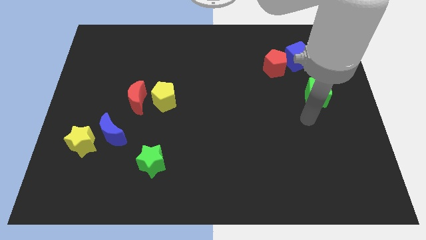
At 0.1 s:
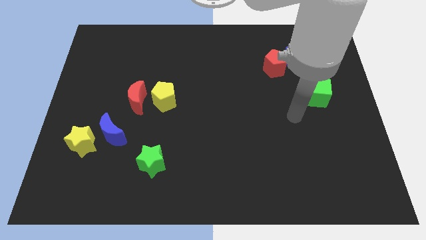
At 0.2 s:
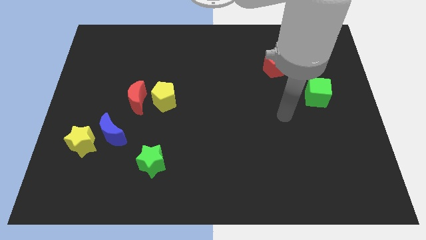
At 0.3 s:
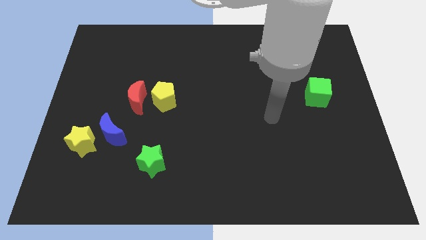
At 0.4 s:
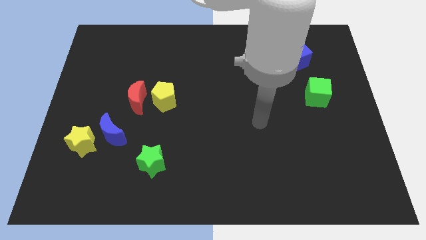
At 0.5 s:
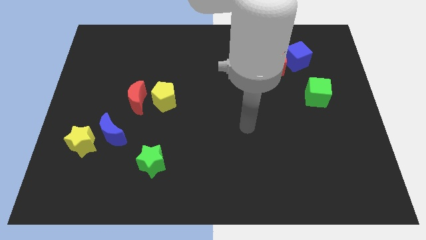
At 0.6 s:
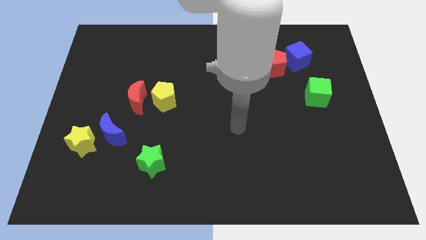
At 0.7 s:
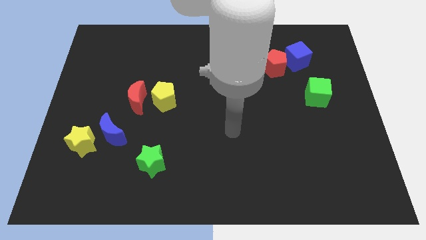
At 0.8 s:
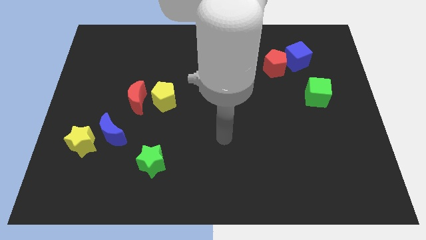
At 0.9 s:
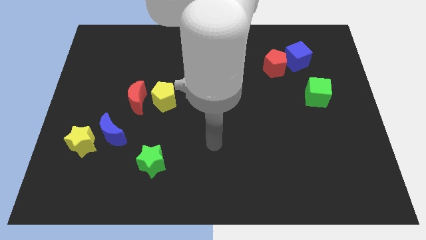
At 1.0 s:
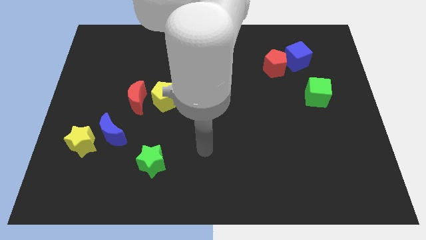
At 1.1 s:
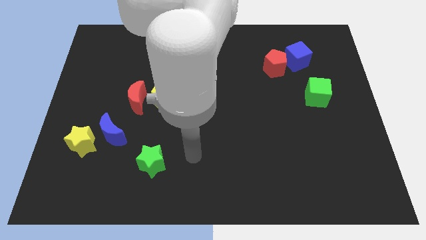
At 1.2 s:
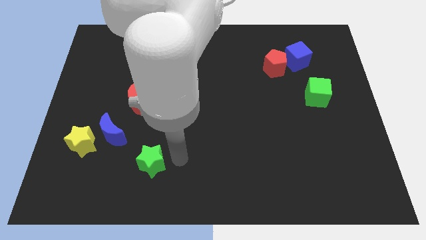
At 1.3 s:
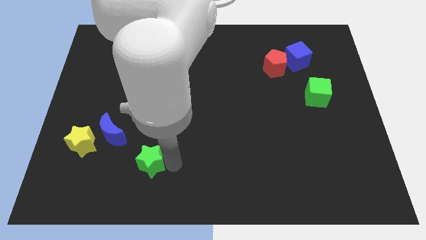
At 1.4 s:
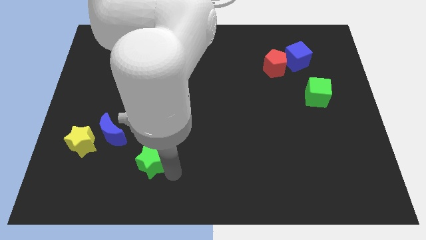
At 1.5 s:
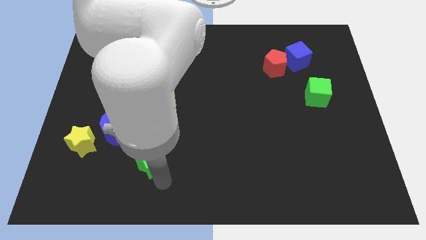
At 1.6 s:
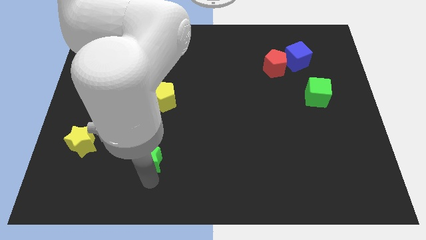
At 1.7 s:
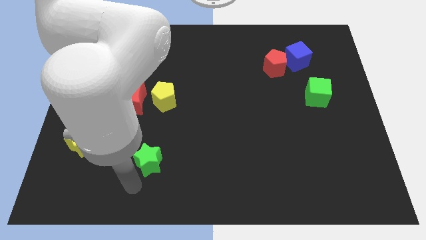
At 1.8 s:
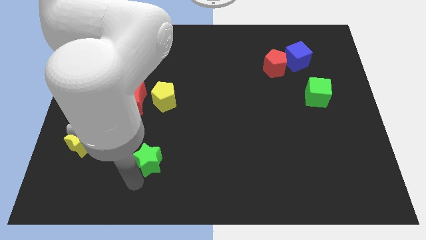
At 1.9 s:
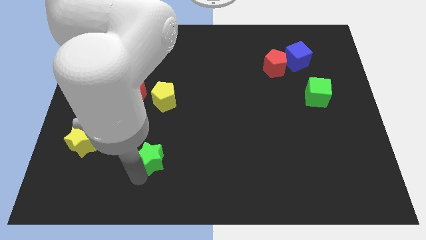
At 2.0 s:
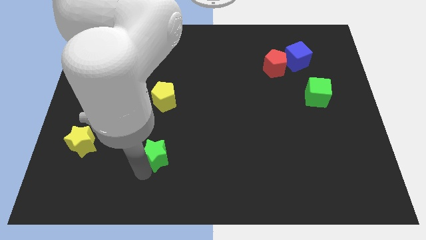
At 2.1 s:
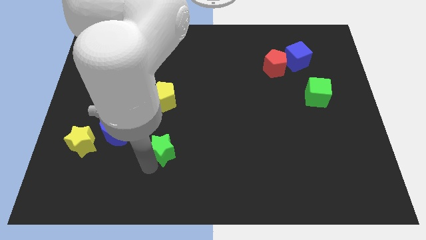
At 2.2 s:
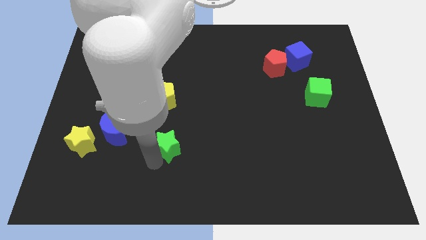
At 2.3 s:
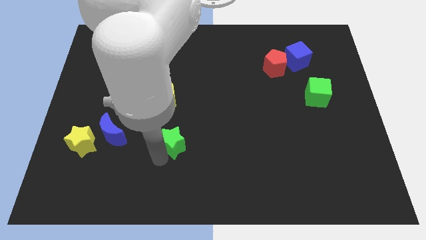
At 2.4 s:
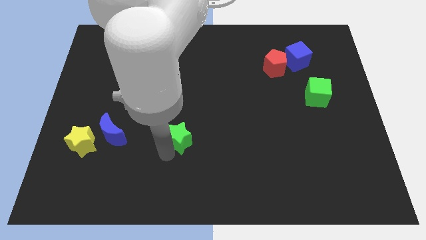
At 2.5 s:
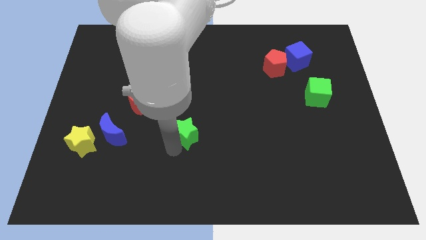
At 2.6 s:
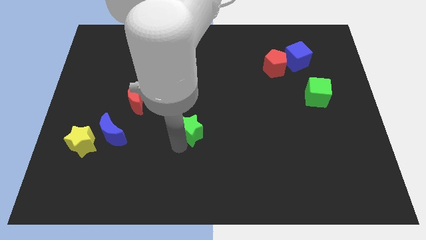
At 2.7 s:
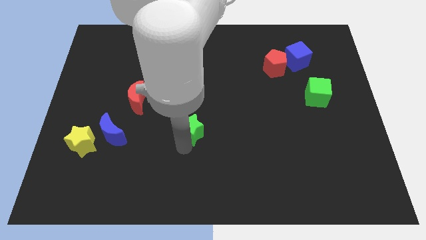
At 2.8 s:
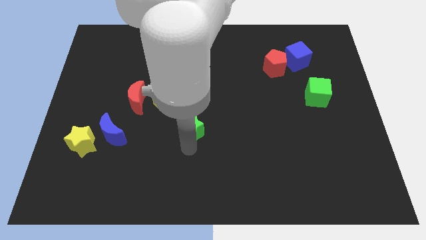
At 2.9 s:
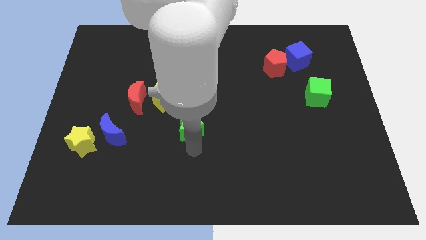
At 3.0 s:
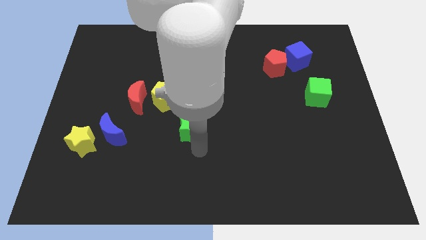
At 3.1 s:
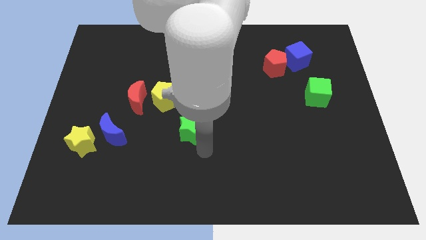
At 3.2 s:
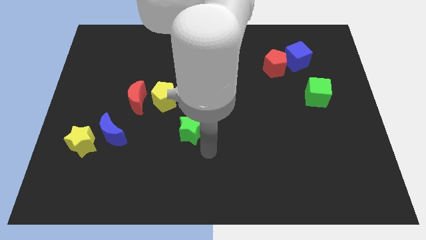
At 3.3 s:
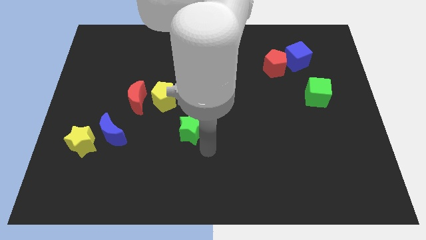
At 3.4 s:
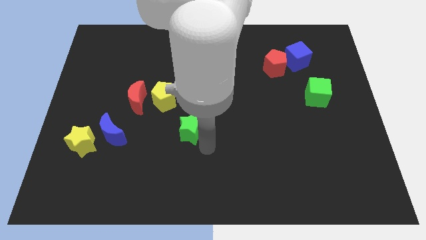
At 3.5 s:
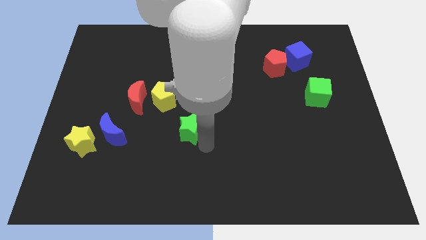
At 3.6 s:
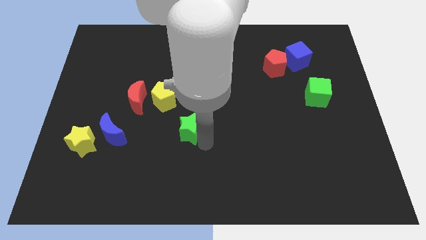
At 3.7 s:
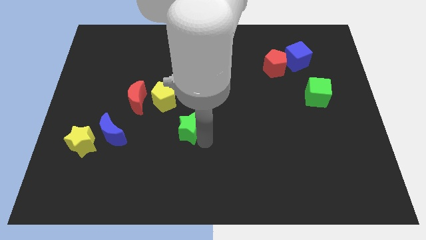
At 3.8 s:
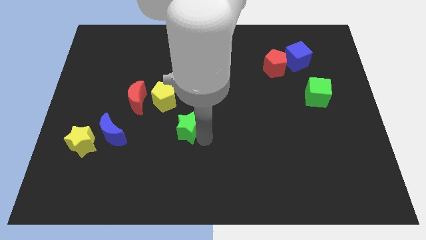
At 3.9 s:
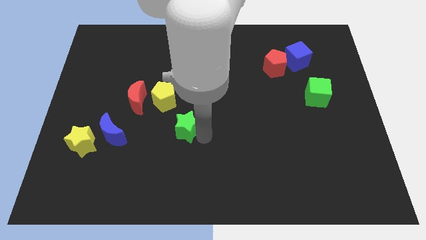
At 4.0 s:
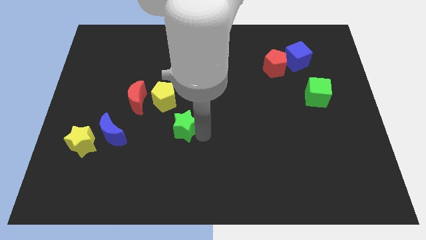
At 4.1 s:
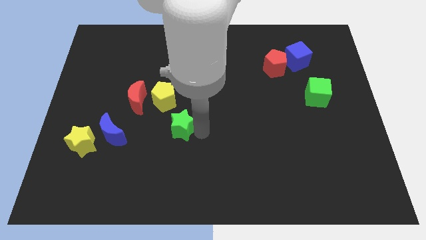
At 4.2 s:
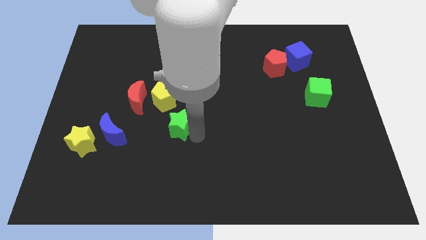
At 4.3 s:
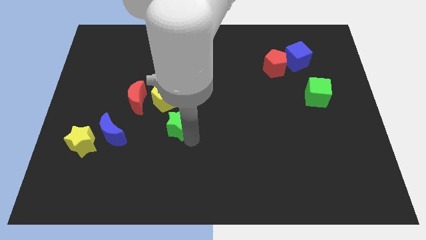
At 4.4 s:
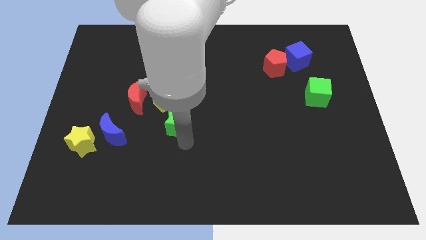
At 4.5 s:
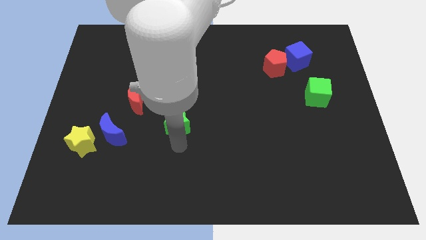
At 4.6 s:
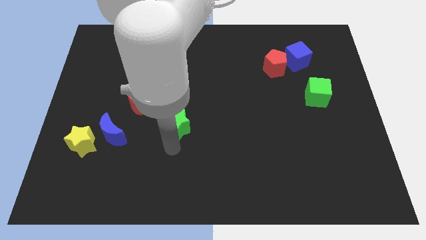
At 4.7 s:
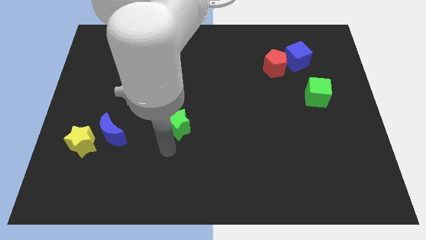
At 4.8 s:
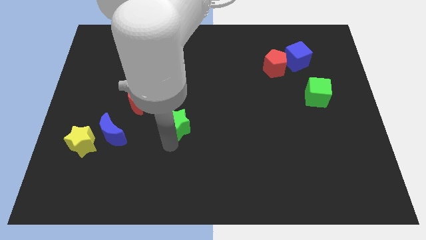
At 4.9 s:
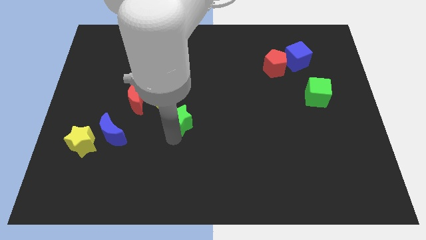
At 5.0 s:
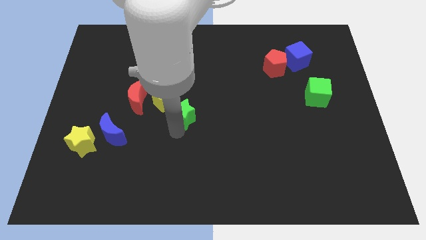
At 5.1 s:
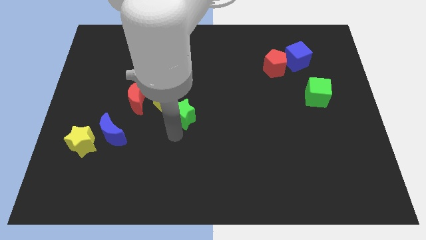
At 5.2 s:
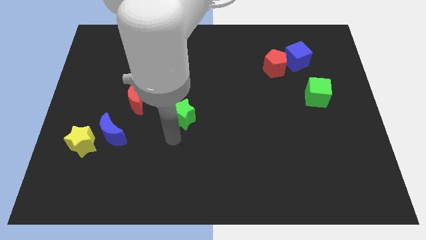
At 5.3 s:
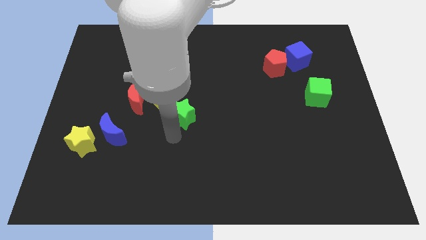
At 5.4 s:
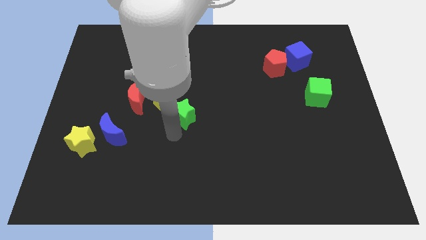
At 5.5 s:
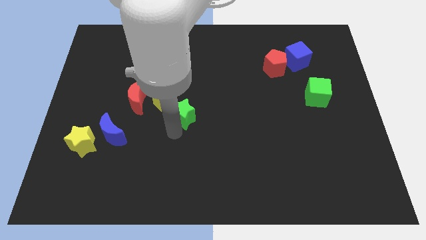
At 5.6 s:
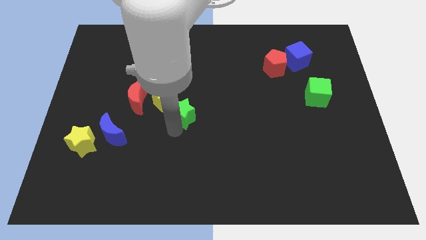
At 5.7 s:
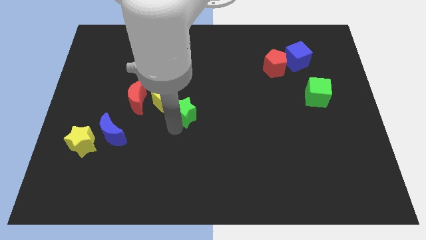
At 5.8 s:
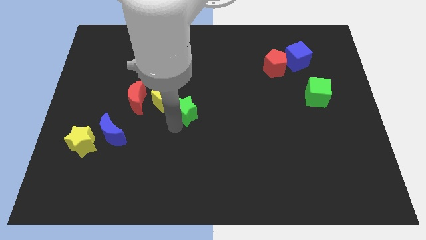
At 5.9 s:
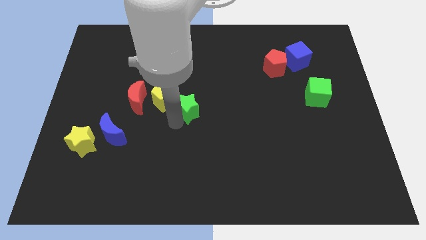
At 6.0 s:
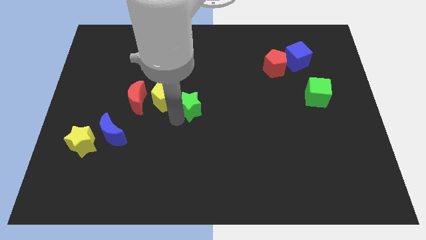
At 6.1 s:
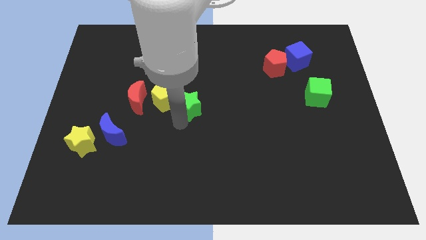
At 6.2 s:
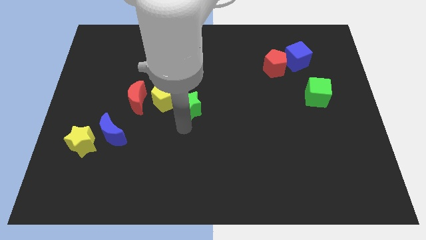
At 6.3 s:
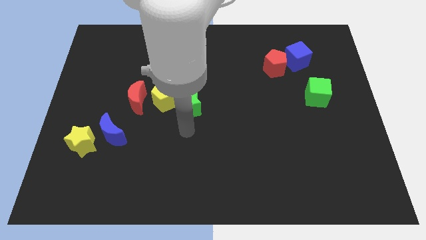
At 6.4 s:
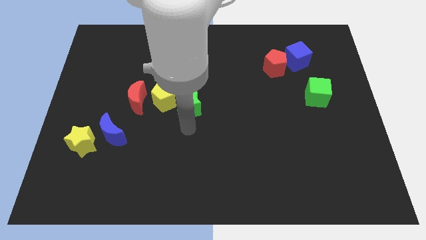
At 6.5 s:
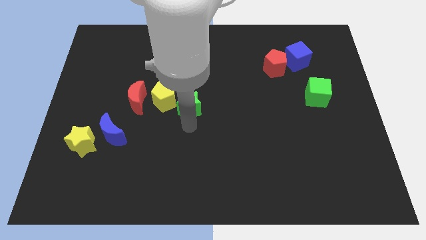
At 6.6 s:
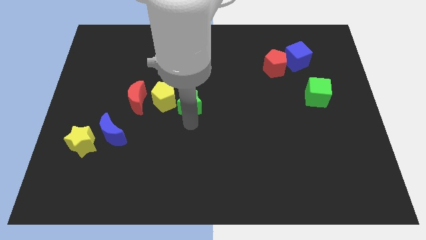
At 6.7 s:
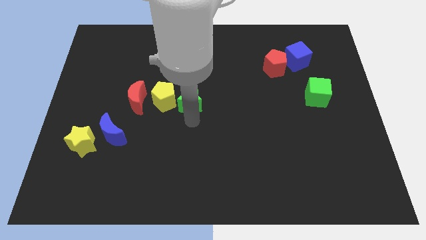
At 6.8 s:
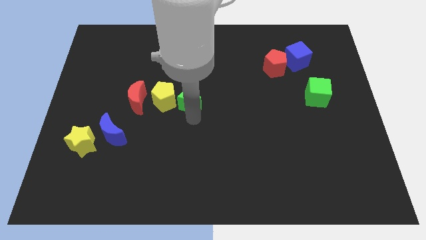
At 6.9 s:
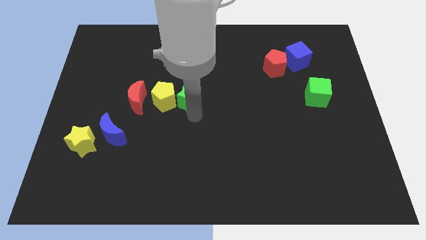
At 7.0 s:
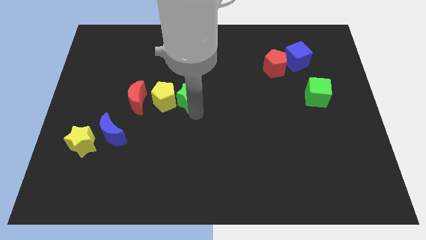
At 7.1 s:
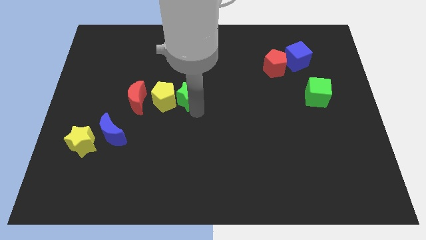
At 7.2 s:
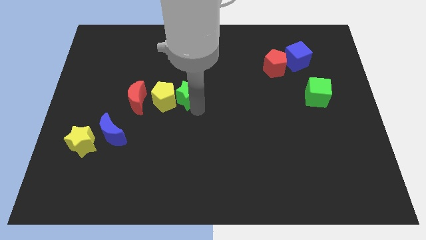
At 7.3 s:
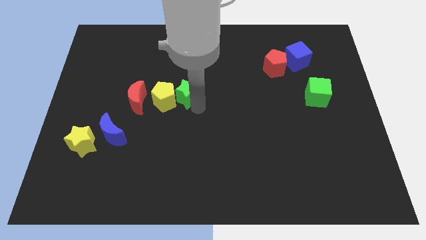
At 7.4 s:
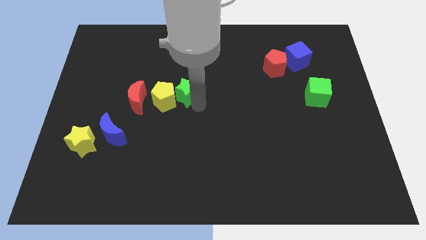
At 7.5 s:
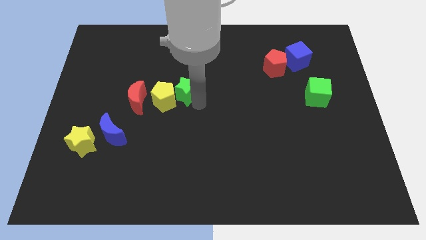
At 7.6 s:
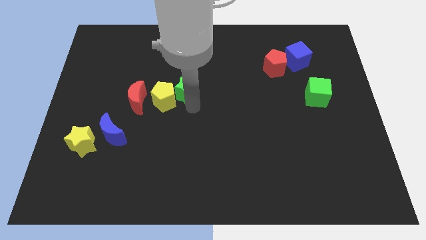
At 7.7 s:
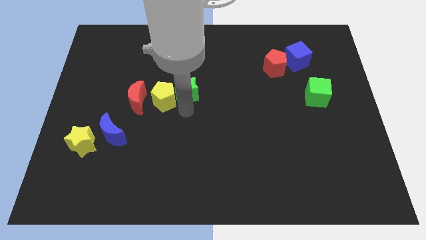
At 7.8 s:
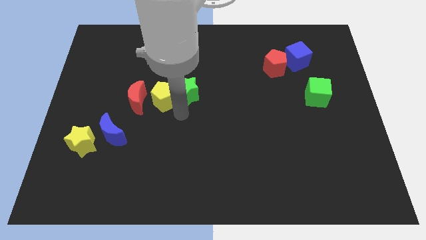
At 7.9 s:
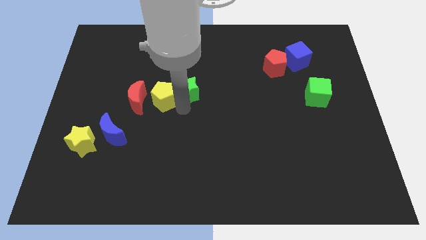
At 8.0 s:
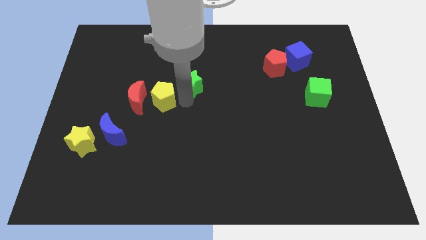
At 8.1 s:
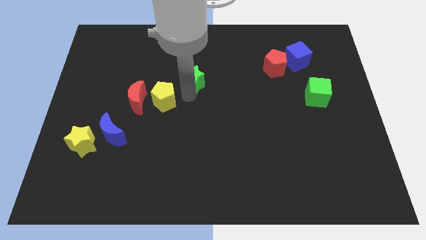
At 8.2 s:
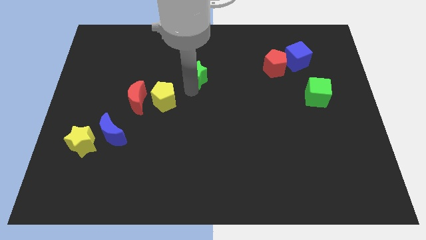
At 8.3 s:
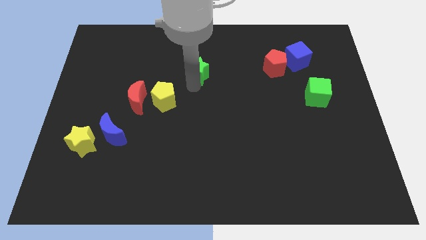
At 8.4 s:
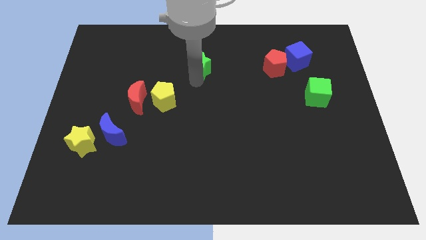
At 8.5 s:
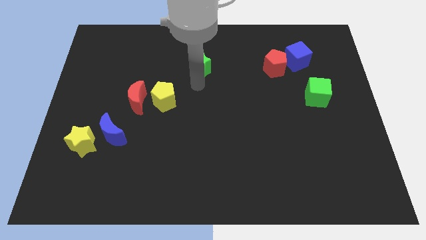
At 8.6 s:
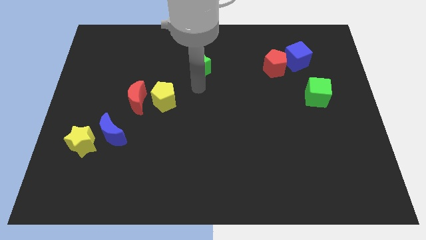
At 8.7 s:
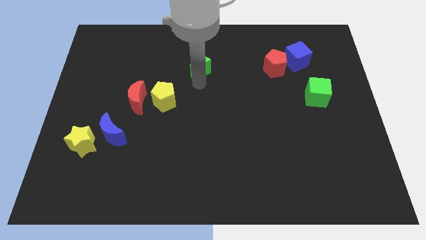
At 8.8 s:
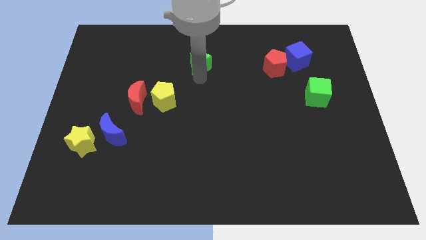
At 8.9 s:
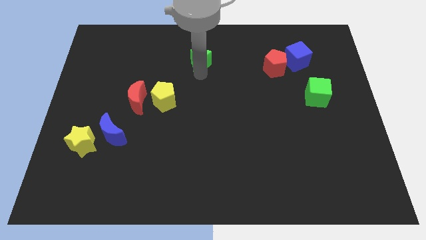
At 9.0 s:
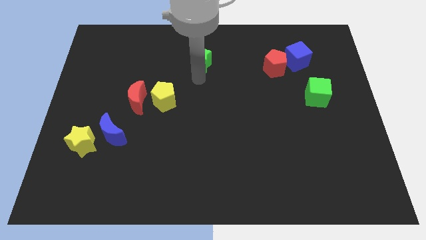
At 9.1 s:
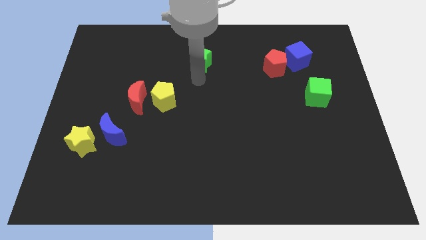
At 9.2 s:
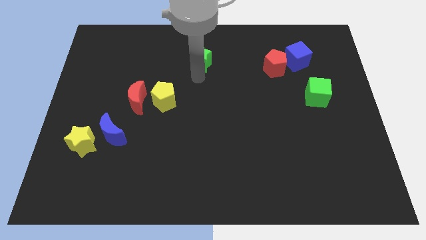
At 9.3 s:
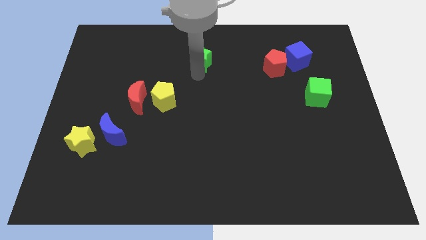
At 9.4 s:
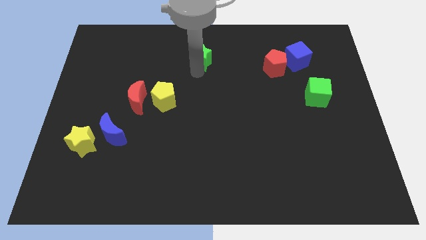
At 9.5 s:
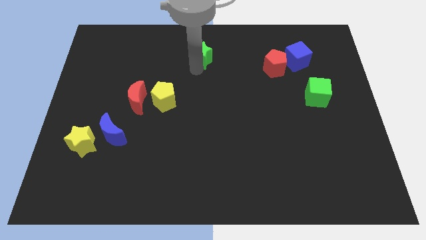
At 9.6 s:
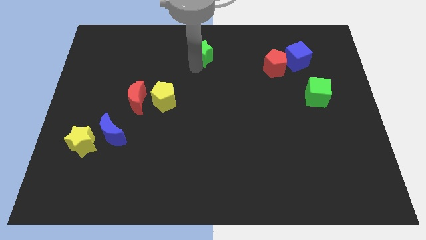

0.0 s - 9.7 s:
slide the green star to the top
